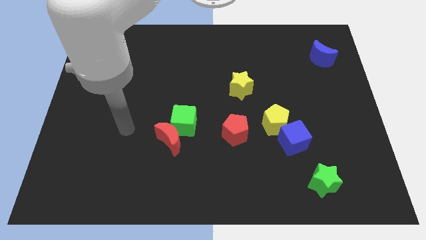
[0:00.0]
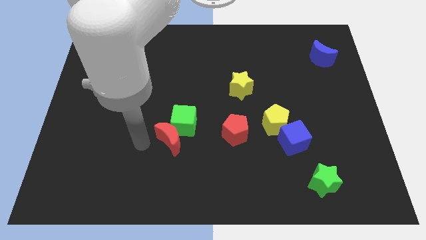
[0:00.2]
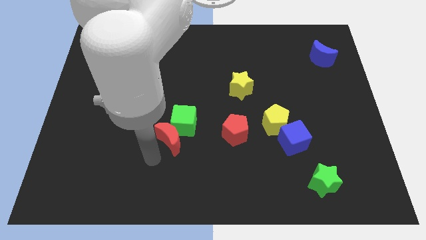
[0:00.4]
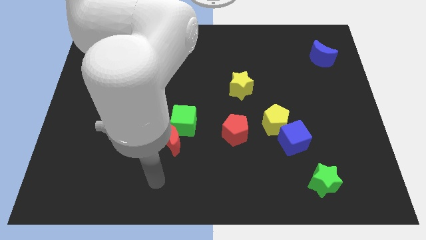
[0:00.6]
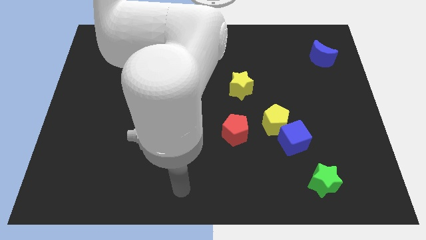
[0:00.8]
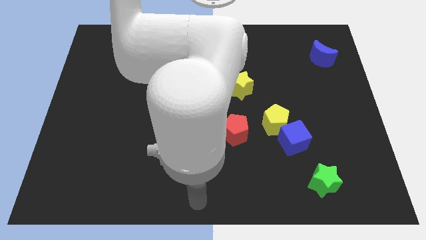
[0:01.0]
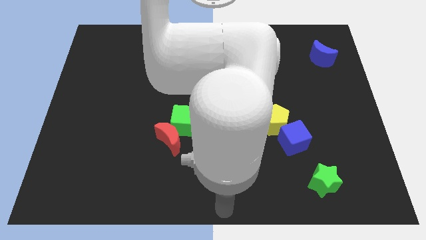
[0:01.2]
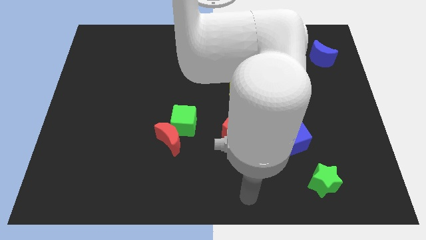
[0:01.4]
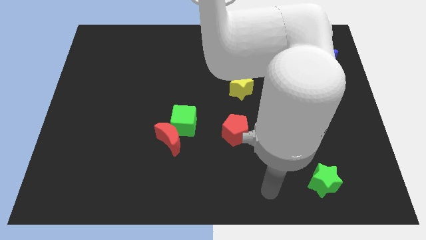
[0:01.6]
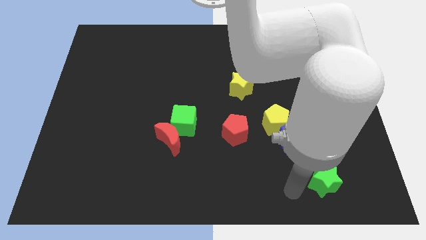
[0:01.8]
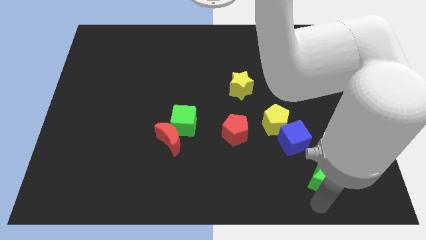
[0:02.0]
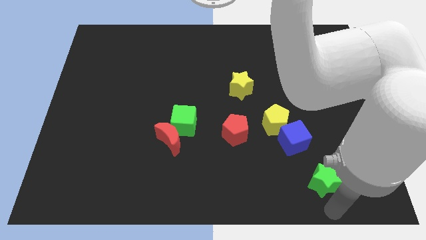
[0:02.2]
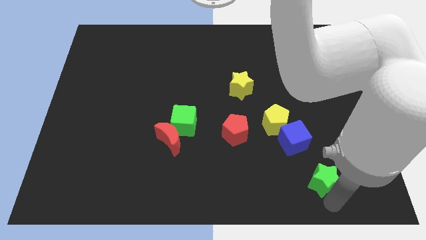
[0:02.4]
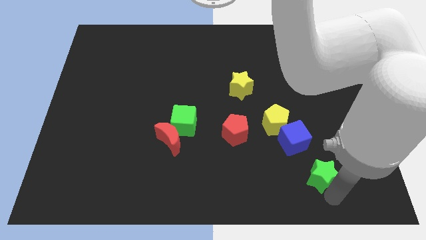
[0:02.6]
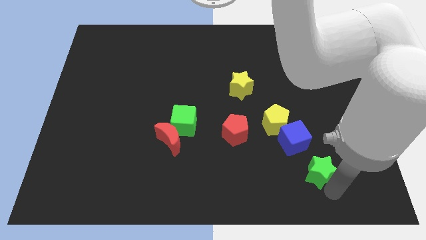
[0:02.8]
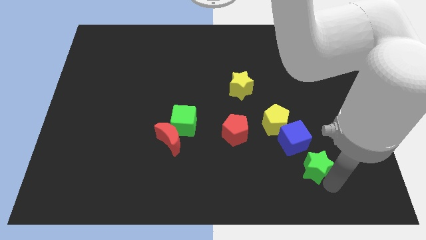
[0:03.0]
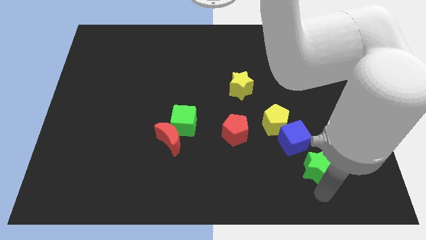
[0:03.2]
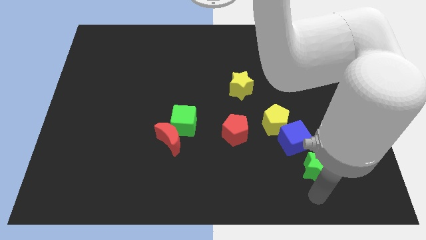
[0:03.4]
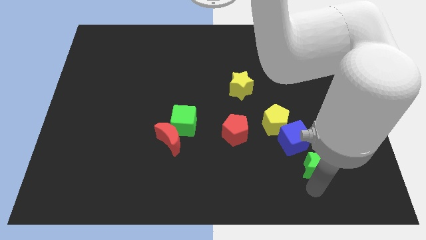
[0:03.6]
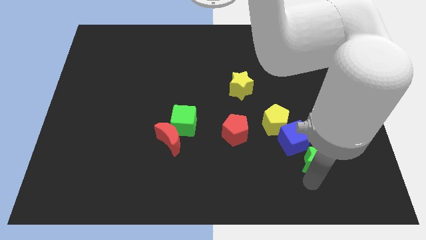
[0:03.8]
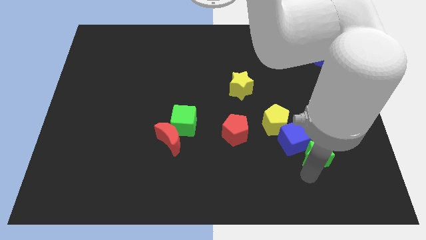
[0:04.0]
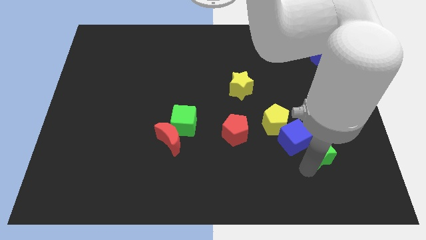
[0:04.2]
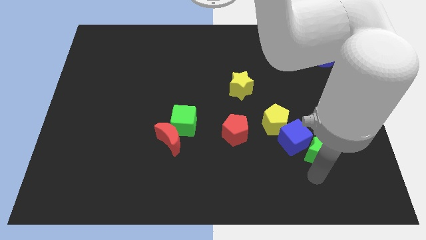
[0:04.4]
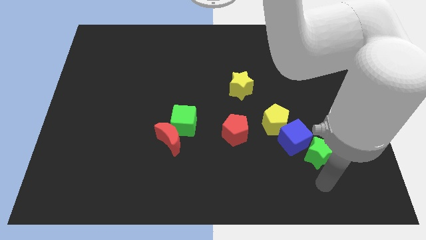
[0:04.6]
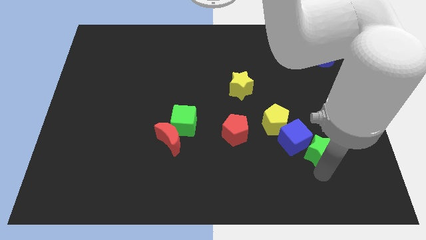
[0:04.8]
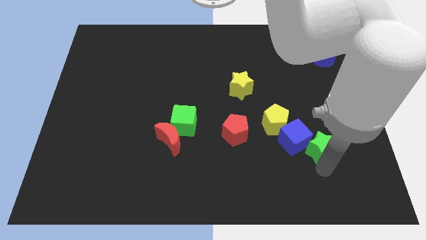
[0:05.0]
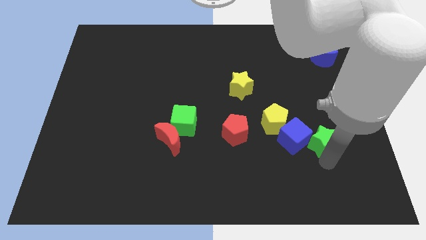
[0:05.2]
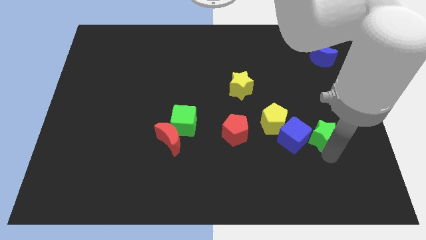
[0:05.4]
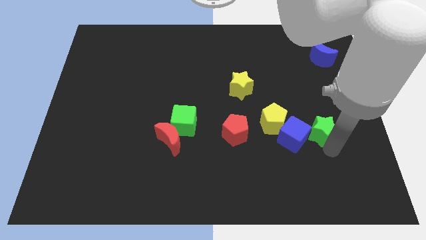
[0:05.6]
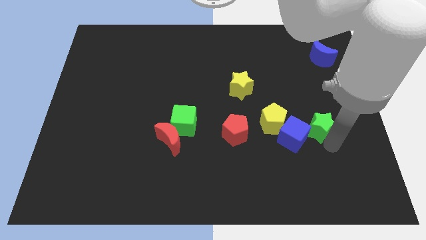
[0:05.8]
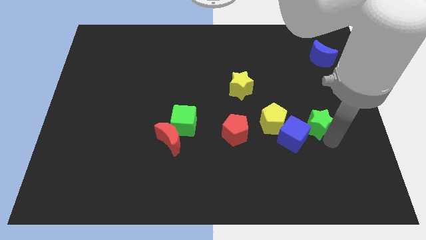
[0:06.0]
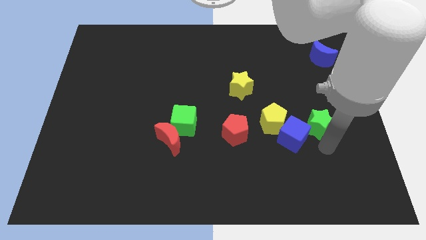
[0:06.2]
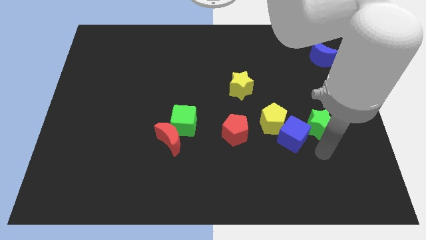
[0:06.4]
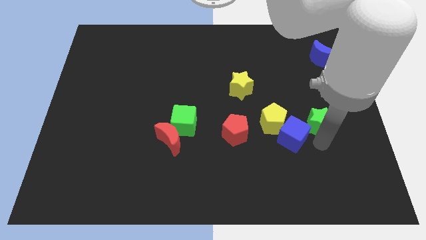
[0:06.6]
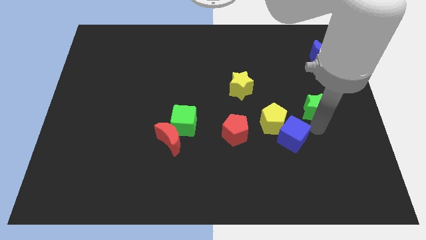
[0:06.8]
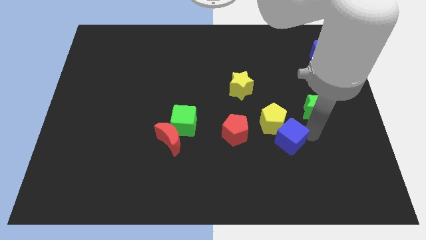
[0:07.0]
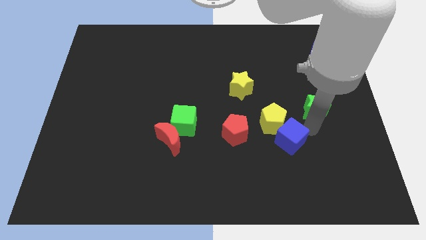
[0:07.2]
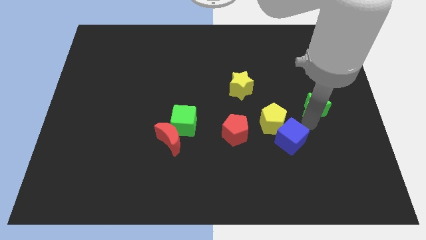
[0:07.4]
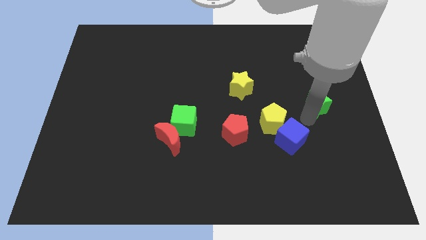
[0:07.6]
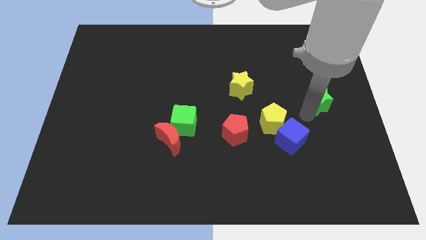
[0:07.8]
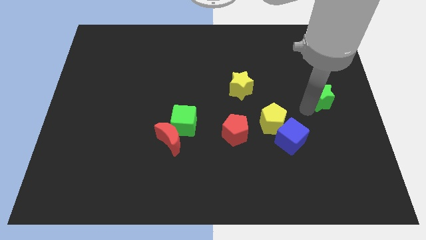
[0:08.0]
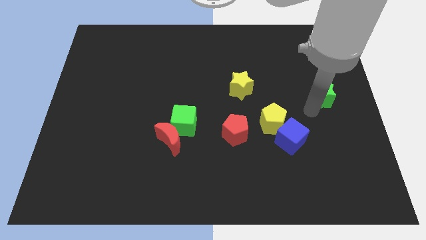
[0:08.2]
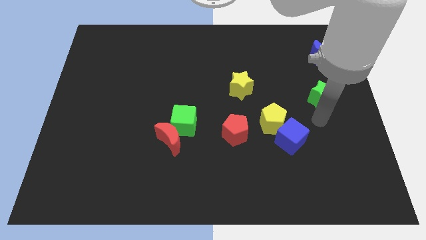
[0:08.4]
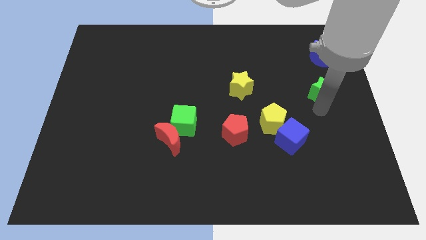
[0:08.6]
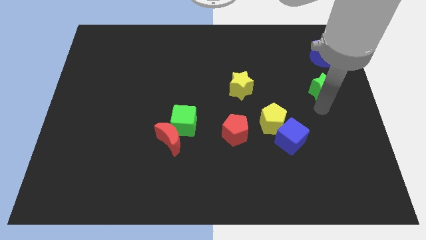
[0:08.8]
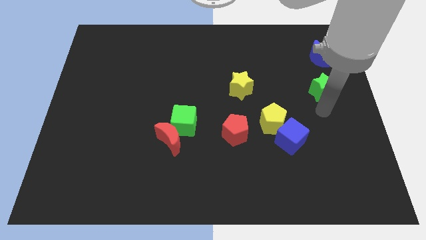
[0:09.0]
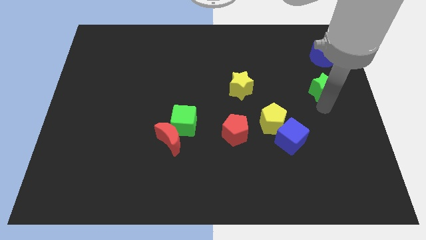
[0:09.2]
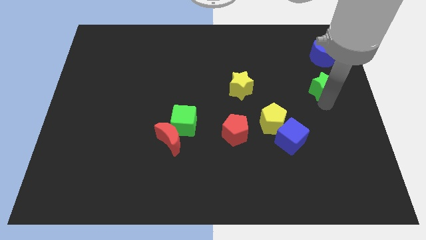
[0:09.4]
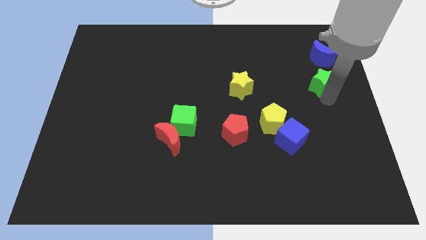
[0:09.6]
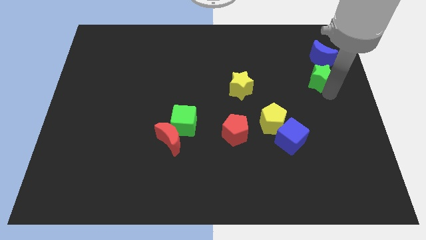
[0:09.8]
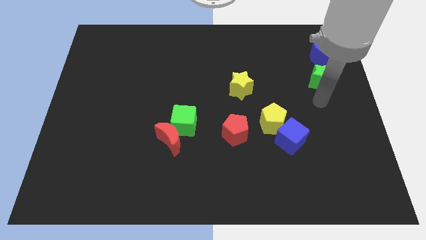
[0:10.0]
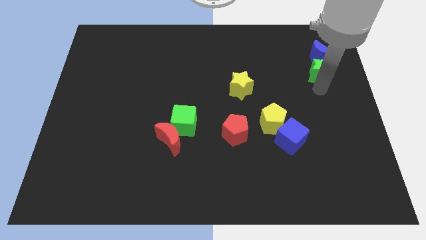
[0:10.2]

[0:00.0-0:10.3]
slide the green star to the blue moon

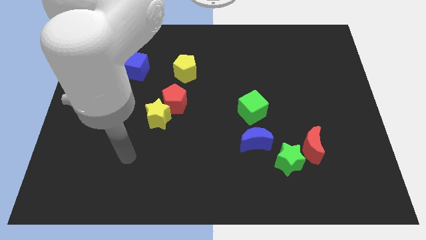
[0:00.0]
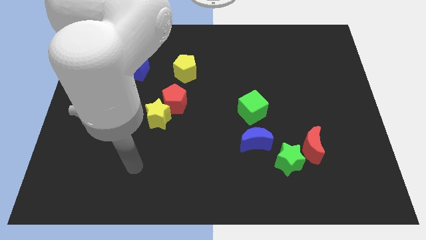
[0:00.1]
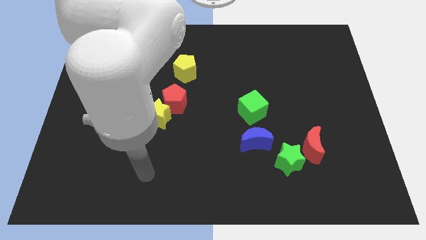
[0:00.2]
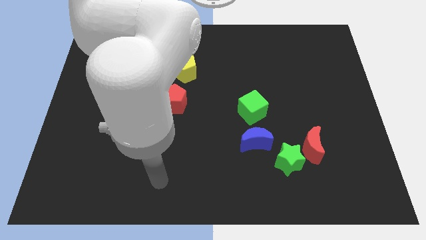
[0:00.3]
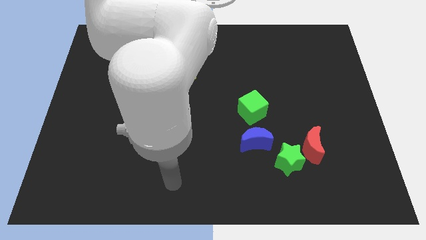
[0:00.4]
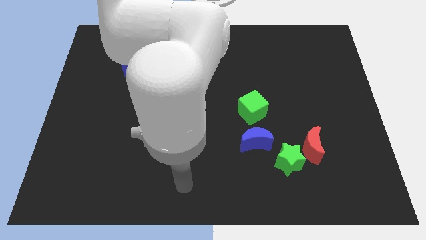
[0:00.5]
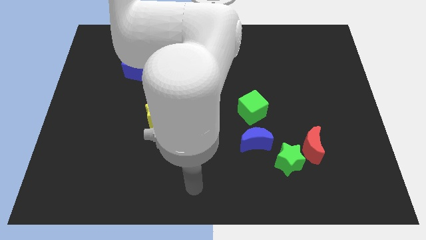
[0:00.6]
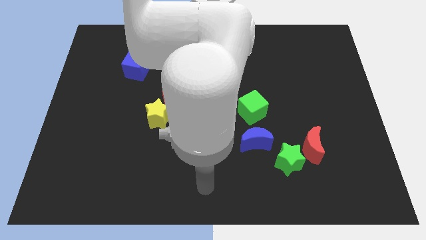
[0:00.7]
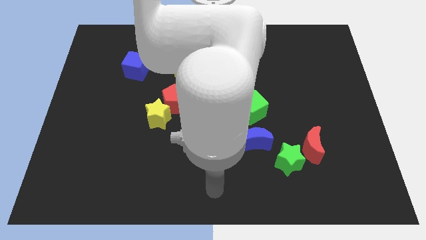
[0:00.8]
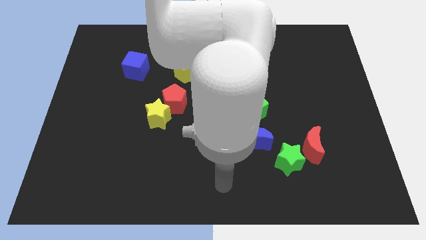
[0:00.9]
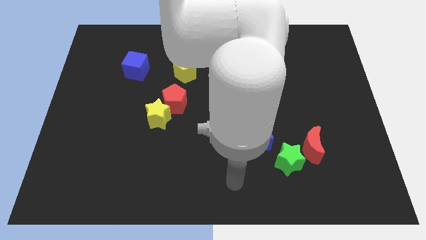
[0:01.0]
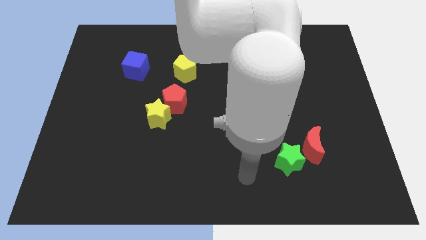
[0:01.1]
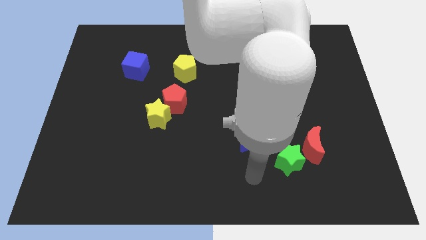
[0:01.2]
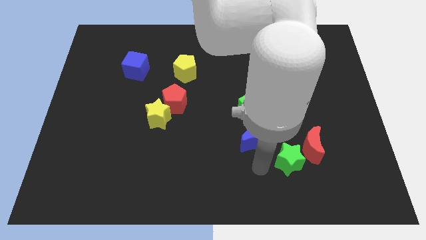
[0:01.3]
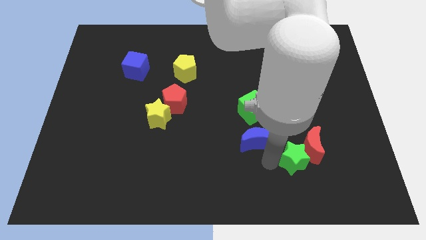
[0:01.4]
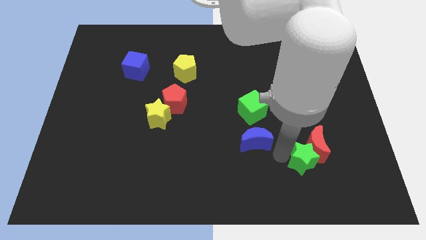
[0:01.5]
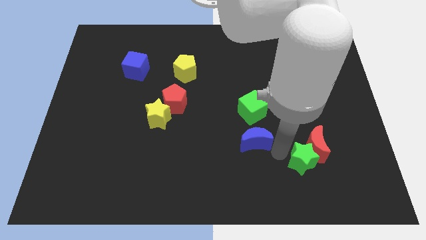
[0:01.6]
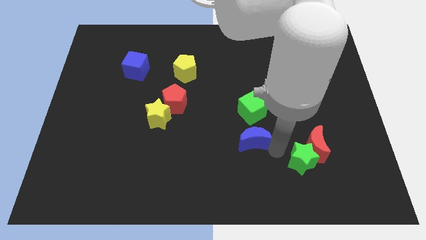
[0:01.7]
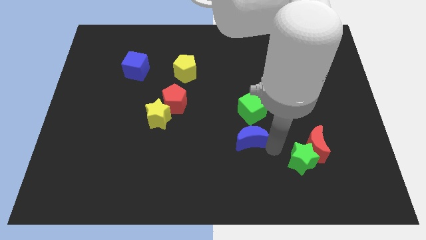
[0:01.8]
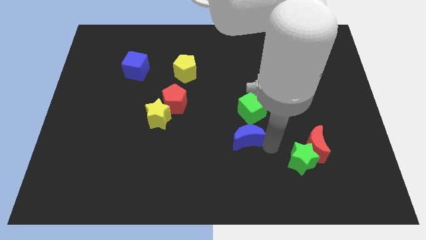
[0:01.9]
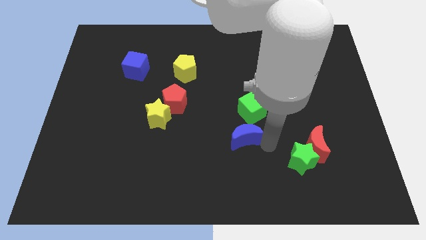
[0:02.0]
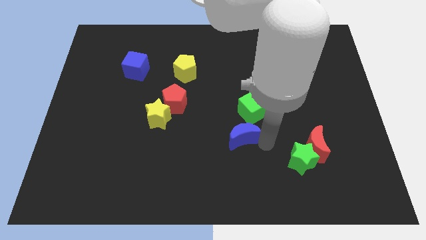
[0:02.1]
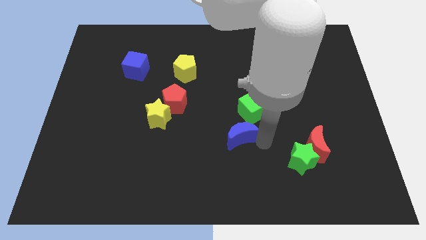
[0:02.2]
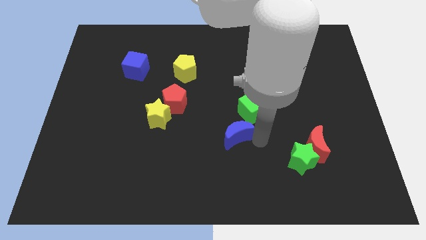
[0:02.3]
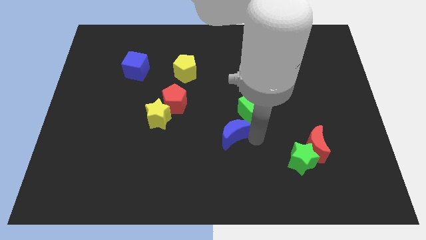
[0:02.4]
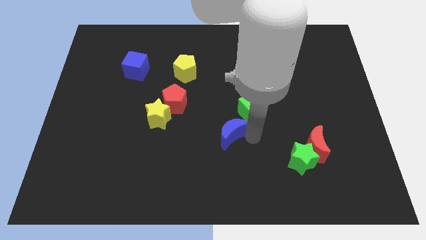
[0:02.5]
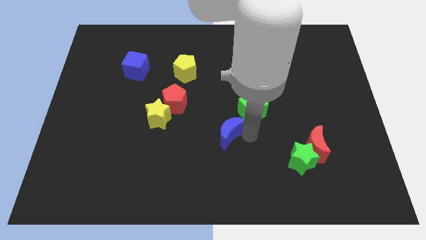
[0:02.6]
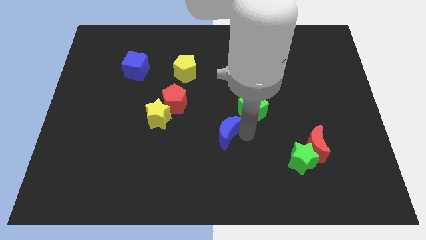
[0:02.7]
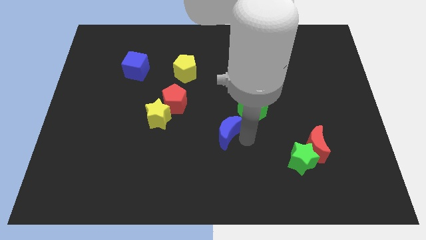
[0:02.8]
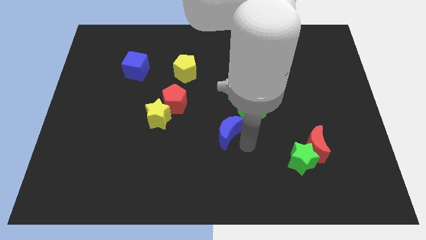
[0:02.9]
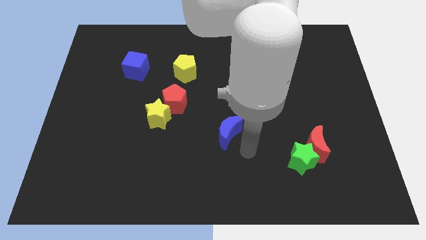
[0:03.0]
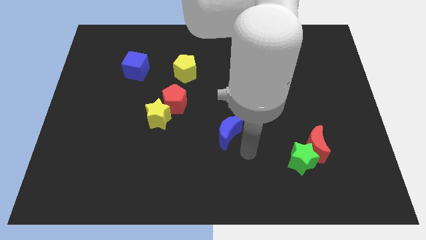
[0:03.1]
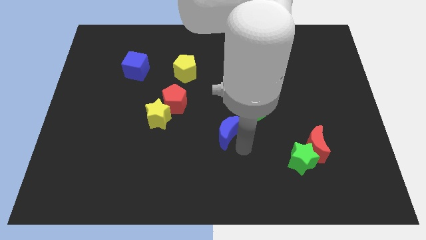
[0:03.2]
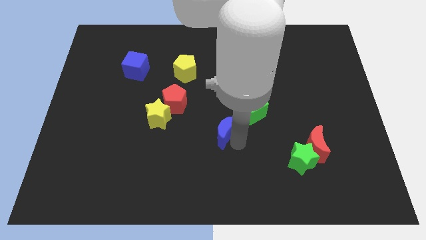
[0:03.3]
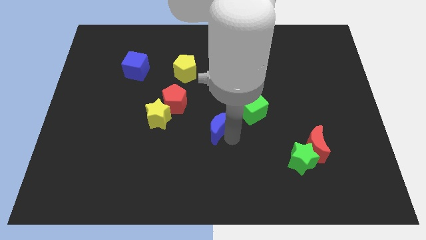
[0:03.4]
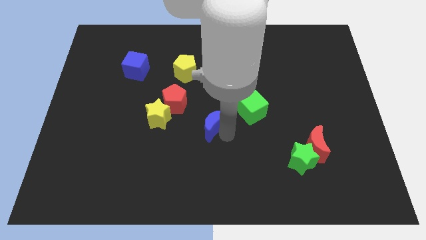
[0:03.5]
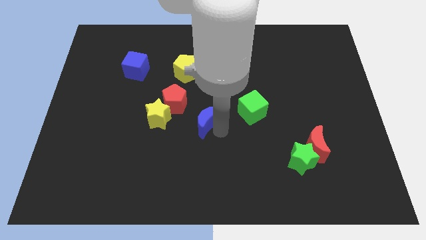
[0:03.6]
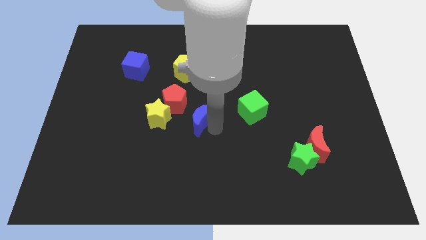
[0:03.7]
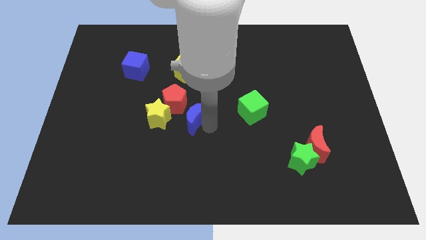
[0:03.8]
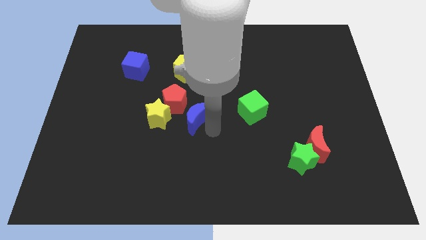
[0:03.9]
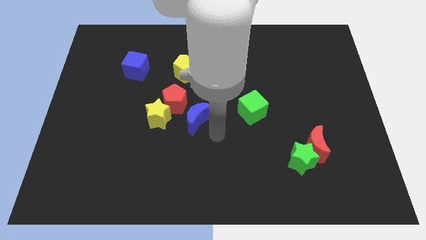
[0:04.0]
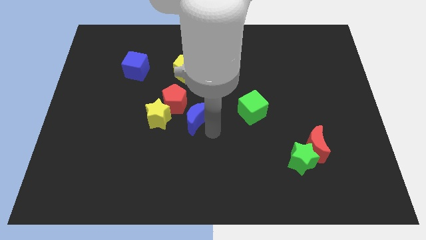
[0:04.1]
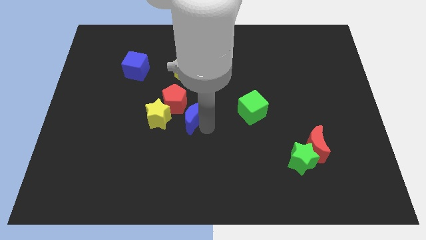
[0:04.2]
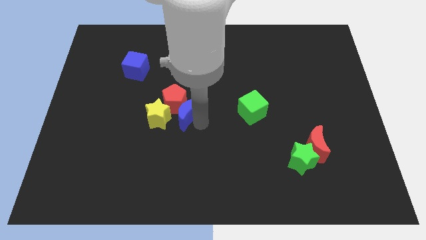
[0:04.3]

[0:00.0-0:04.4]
move the blue moon towards the red pentagon
